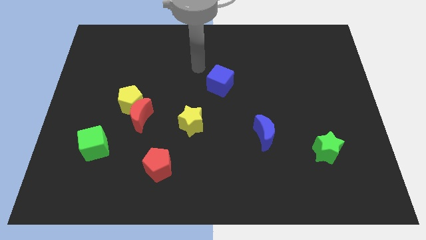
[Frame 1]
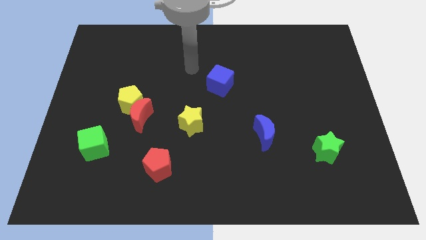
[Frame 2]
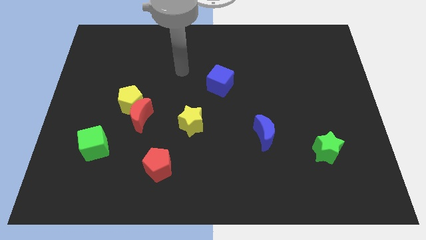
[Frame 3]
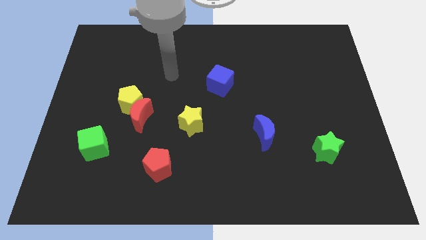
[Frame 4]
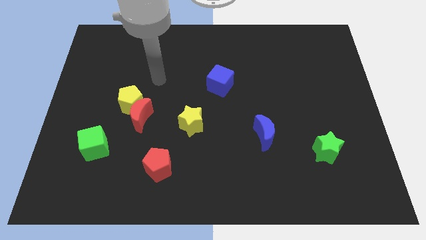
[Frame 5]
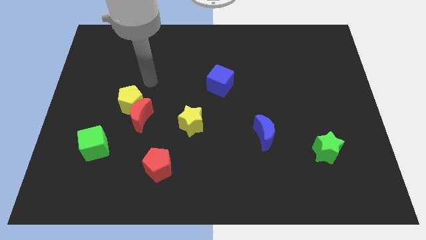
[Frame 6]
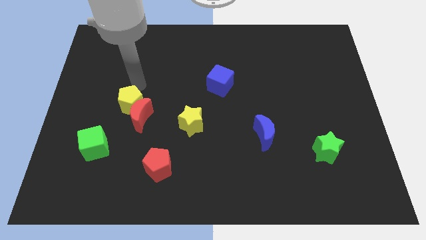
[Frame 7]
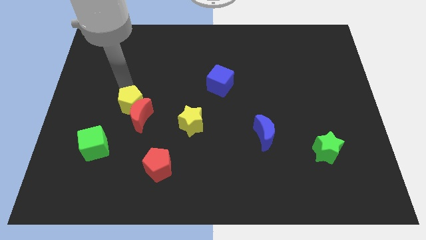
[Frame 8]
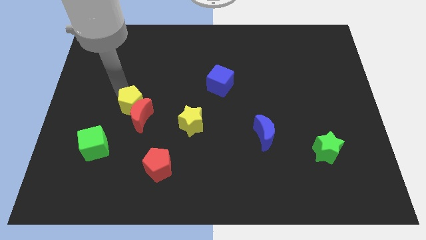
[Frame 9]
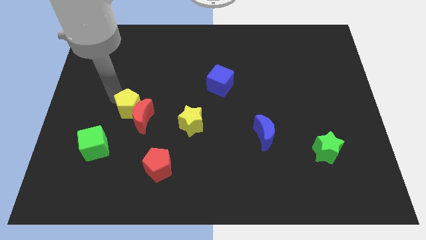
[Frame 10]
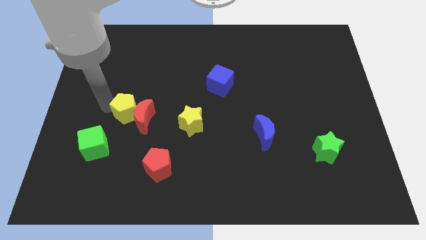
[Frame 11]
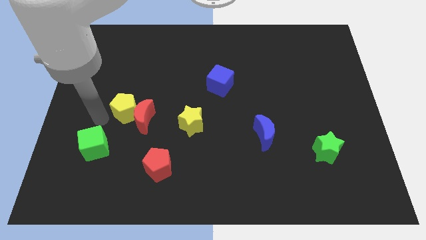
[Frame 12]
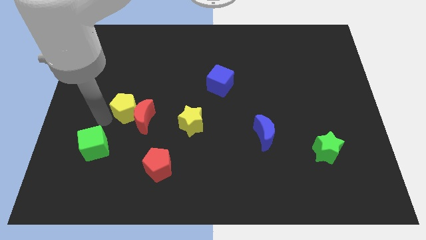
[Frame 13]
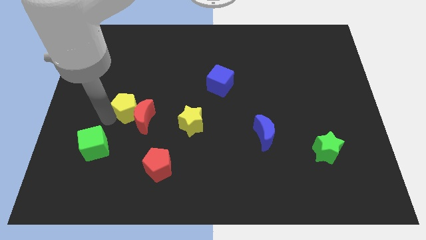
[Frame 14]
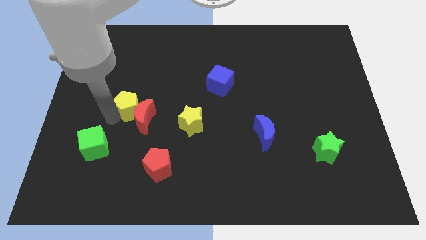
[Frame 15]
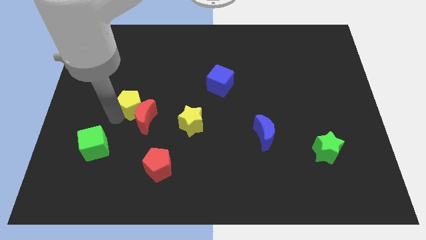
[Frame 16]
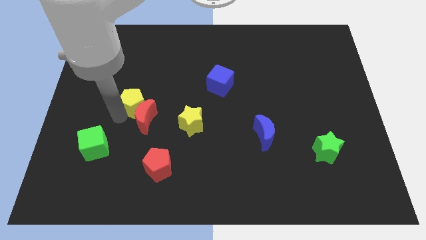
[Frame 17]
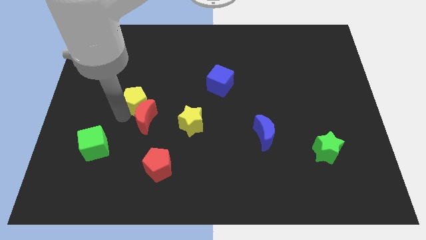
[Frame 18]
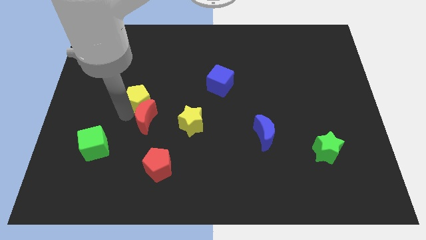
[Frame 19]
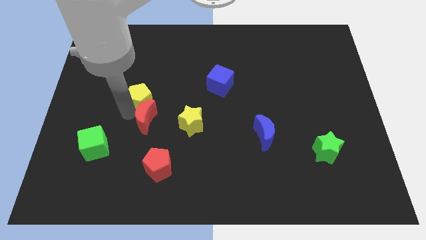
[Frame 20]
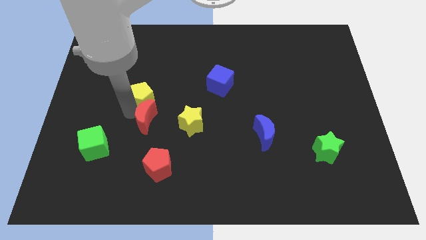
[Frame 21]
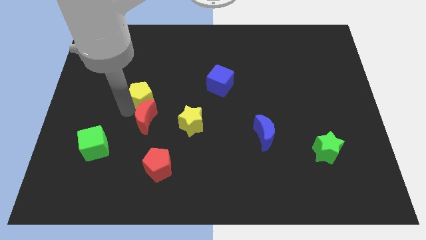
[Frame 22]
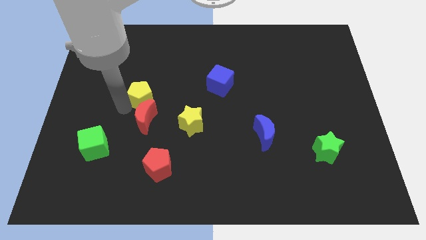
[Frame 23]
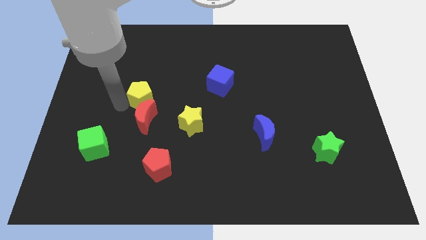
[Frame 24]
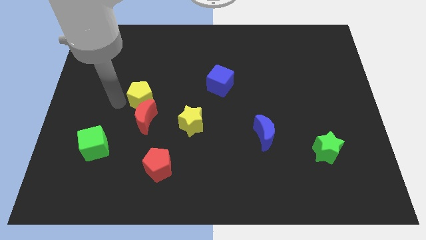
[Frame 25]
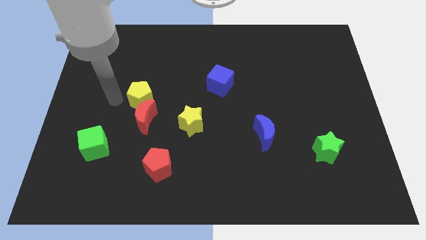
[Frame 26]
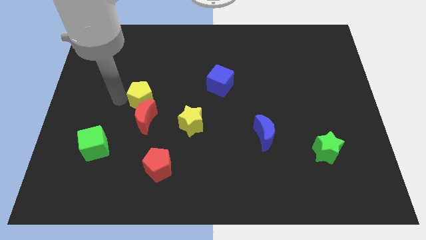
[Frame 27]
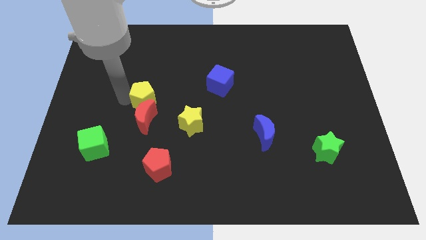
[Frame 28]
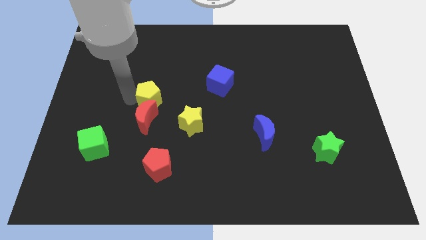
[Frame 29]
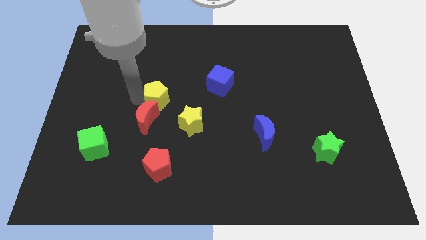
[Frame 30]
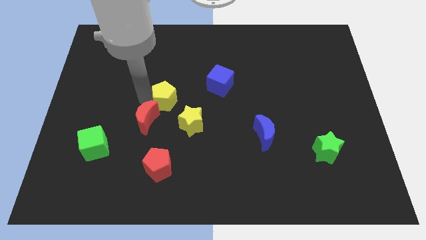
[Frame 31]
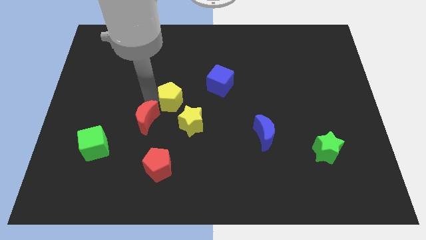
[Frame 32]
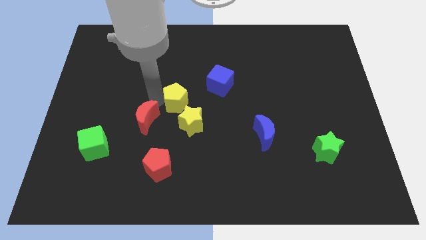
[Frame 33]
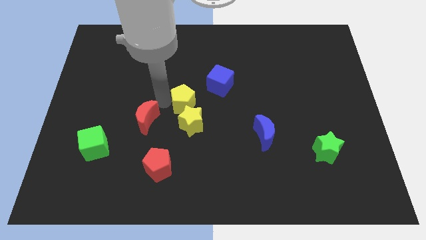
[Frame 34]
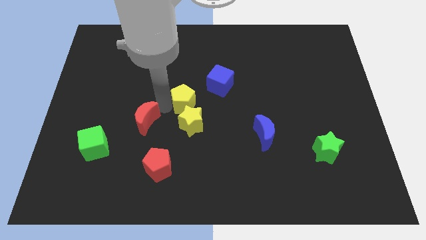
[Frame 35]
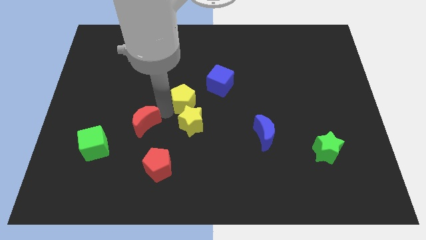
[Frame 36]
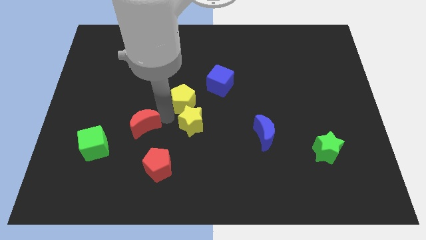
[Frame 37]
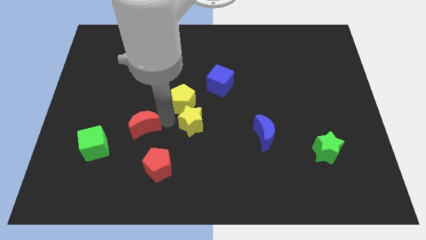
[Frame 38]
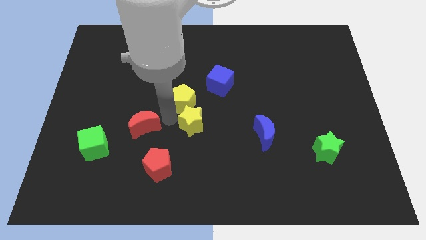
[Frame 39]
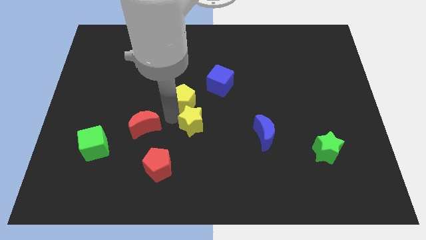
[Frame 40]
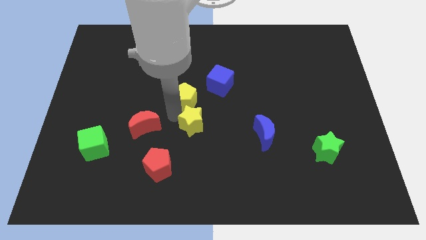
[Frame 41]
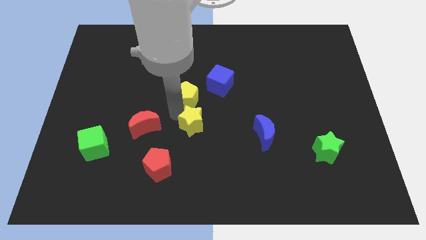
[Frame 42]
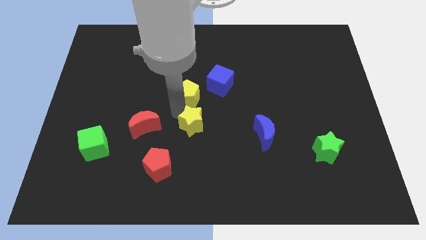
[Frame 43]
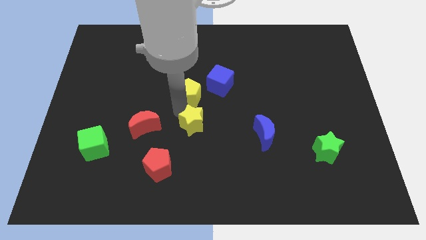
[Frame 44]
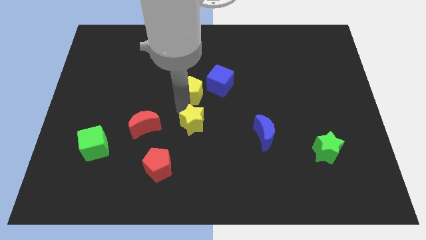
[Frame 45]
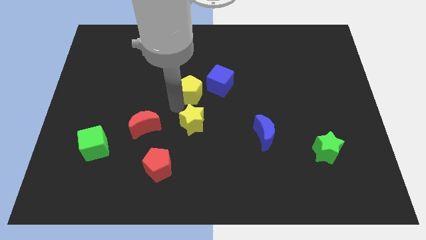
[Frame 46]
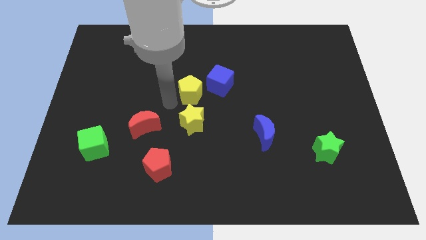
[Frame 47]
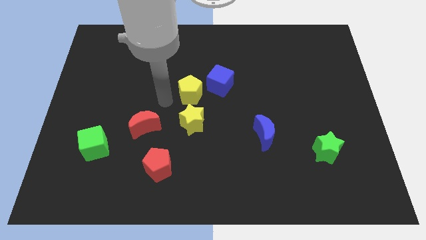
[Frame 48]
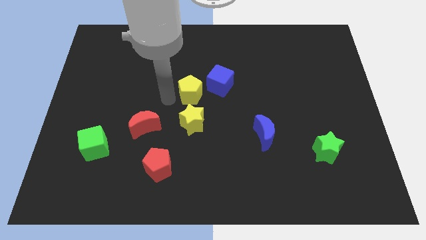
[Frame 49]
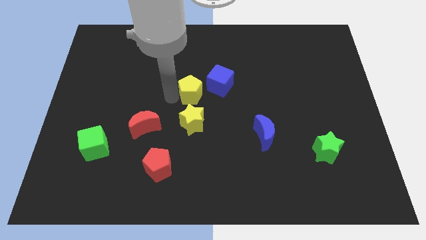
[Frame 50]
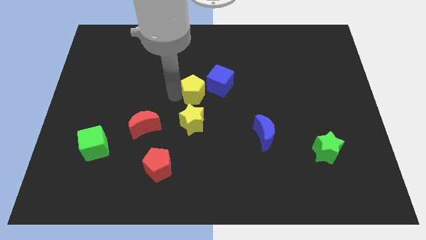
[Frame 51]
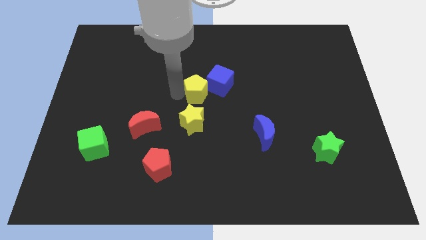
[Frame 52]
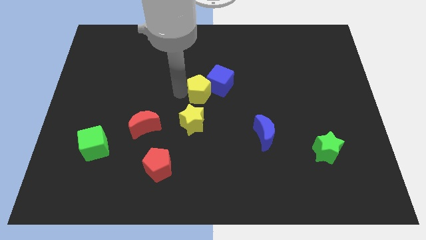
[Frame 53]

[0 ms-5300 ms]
slide the yellow pentagon next to the blue cube

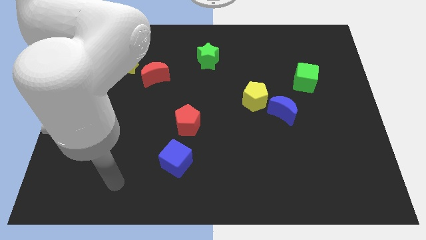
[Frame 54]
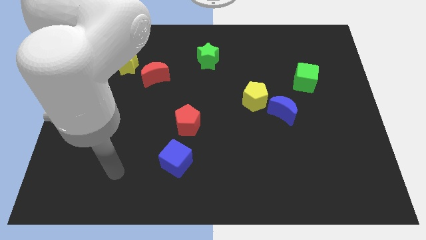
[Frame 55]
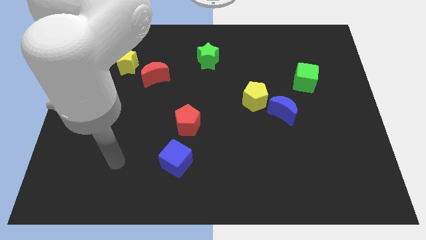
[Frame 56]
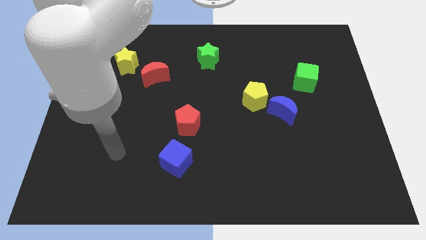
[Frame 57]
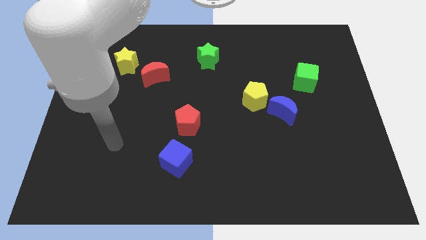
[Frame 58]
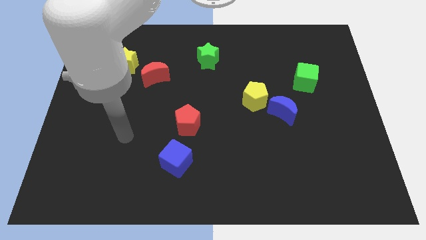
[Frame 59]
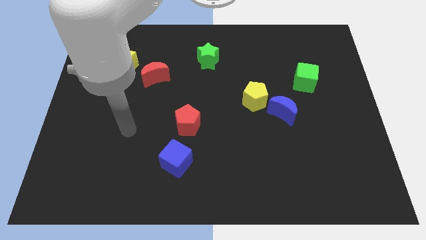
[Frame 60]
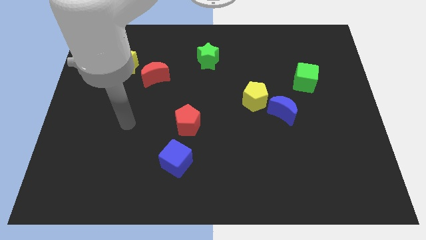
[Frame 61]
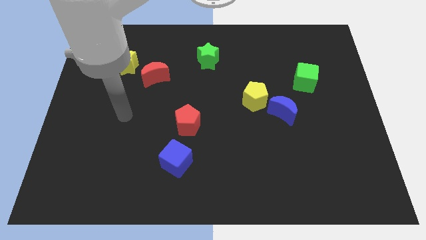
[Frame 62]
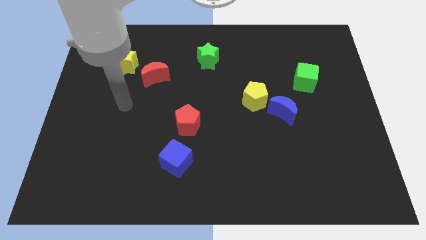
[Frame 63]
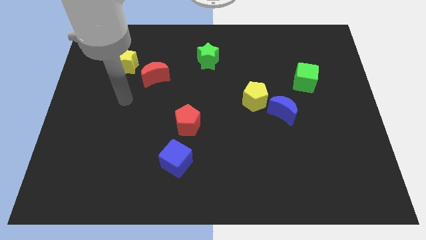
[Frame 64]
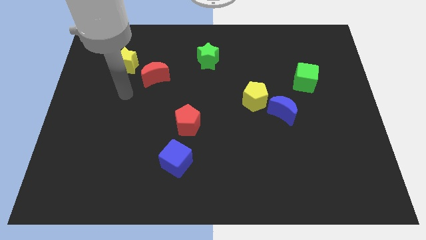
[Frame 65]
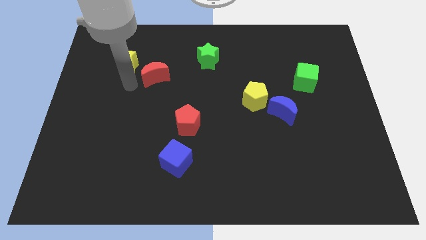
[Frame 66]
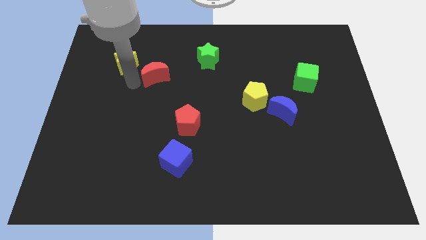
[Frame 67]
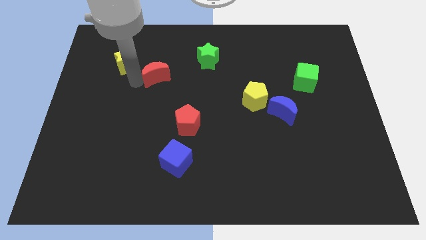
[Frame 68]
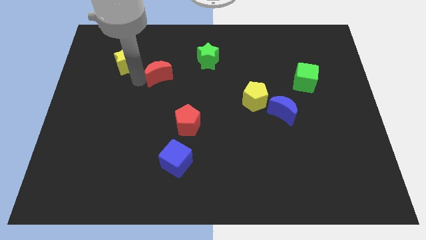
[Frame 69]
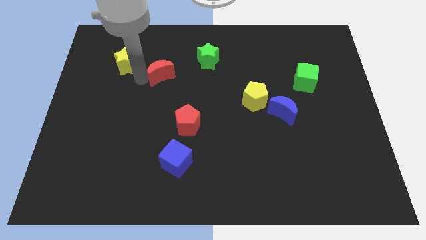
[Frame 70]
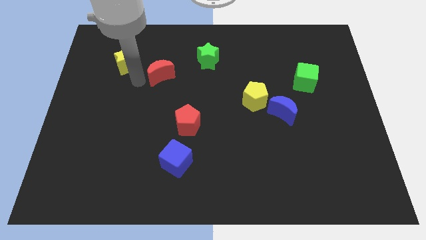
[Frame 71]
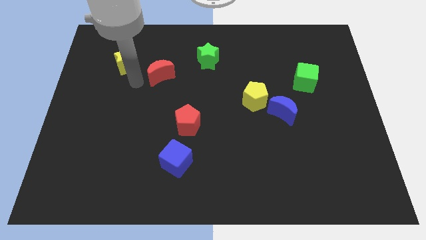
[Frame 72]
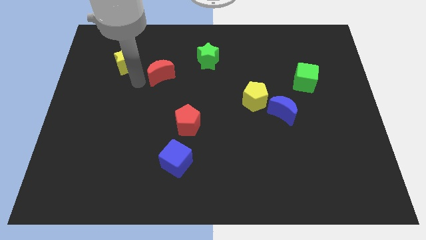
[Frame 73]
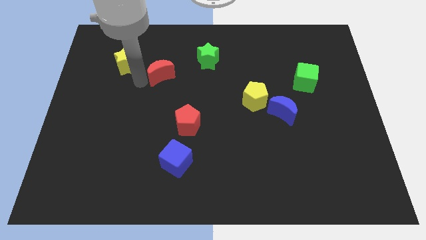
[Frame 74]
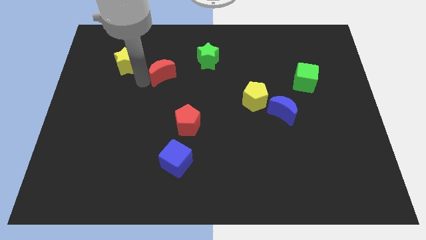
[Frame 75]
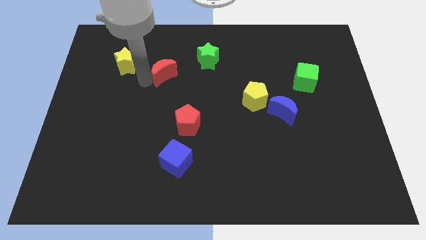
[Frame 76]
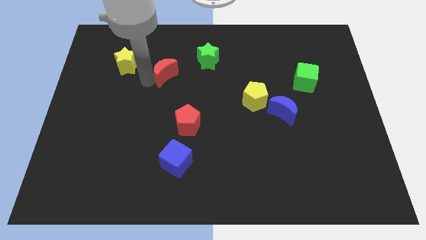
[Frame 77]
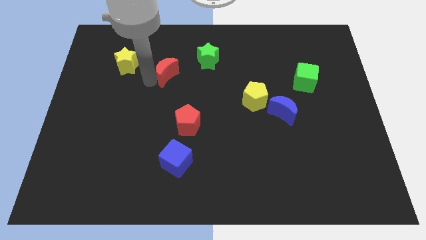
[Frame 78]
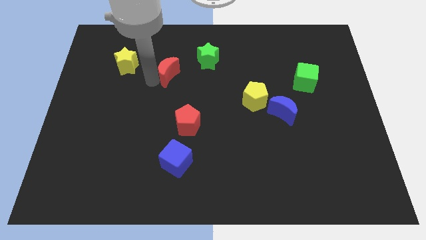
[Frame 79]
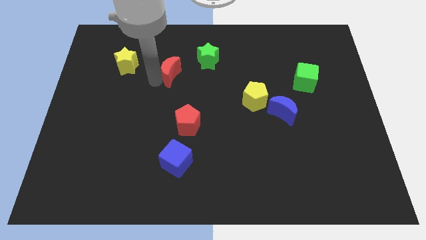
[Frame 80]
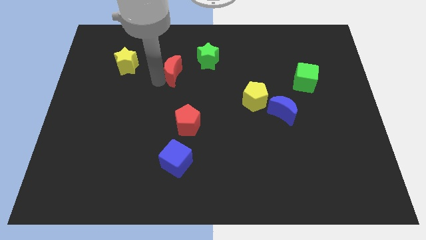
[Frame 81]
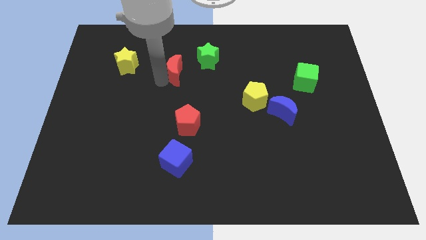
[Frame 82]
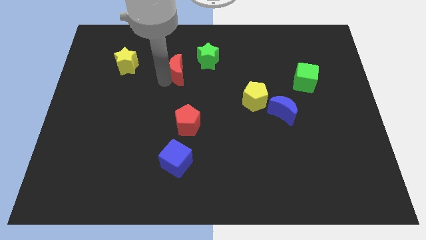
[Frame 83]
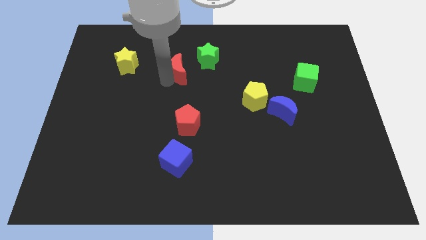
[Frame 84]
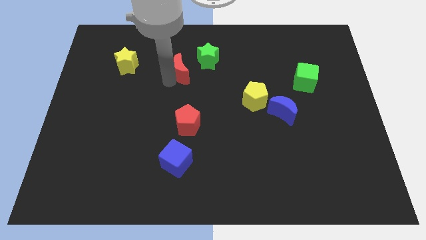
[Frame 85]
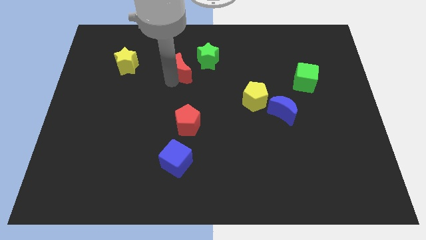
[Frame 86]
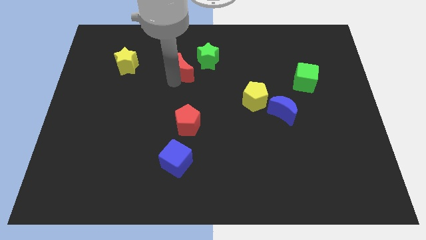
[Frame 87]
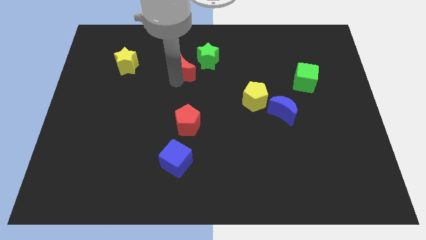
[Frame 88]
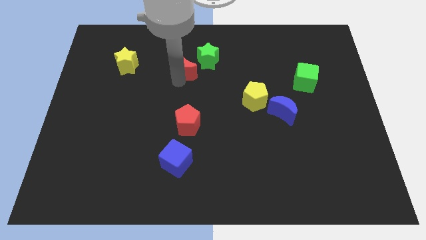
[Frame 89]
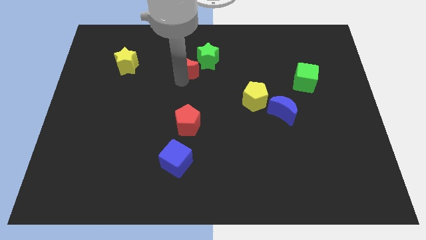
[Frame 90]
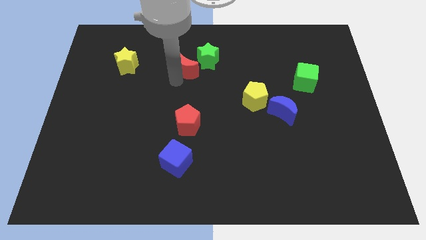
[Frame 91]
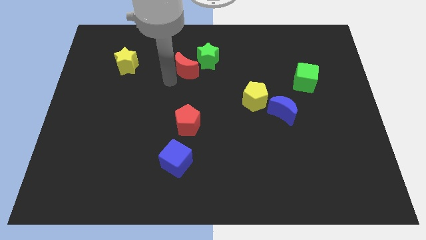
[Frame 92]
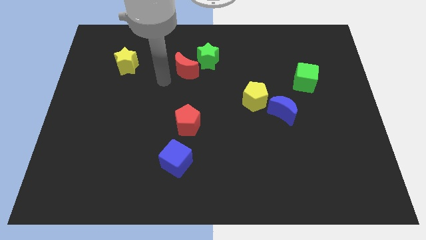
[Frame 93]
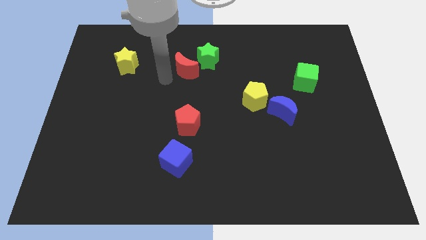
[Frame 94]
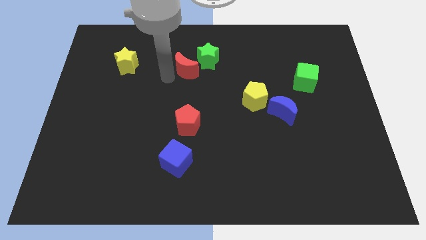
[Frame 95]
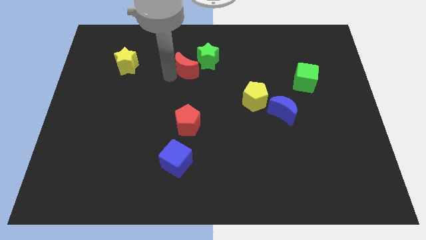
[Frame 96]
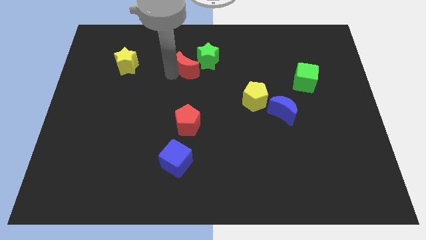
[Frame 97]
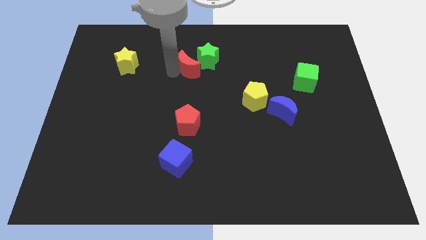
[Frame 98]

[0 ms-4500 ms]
move the red moon towards the green star
